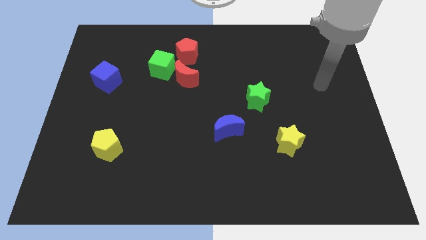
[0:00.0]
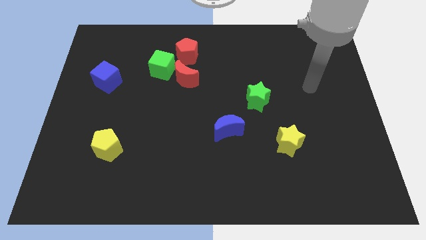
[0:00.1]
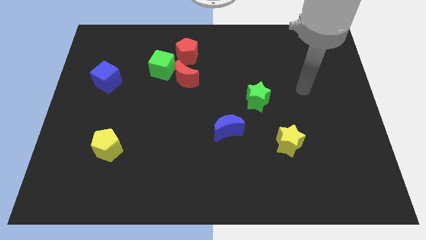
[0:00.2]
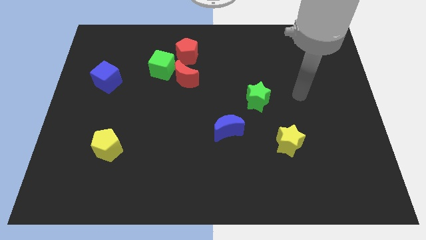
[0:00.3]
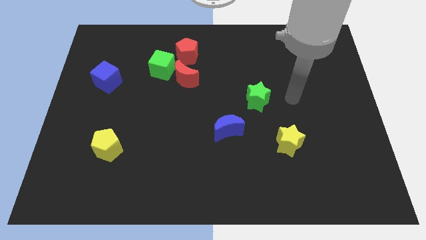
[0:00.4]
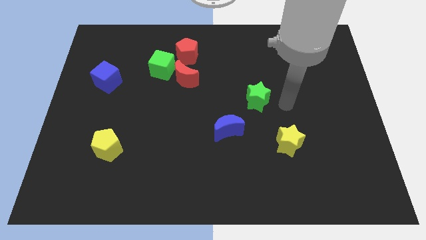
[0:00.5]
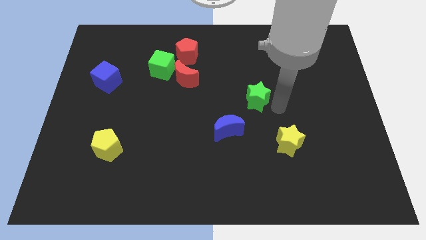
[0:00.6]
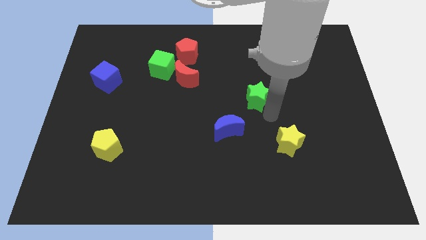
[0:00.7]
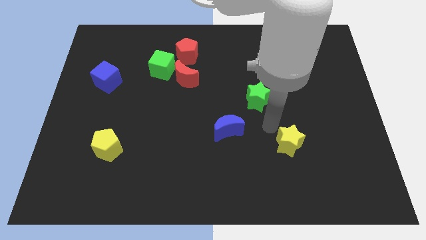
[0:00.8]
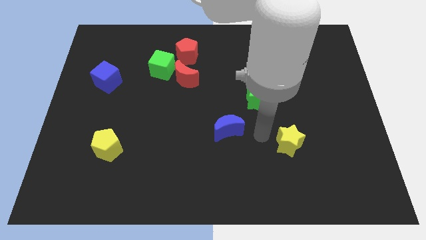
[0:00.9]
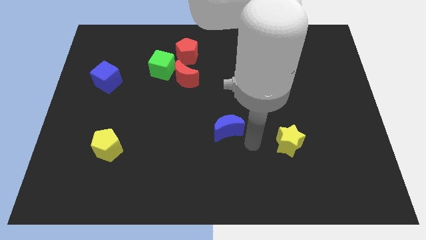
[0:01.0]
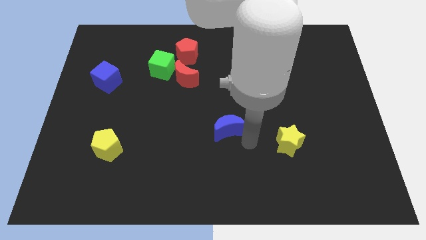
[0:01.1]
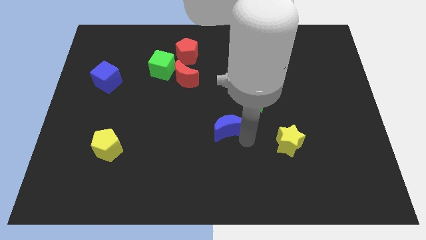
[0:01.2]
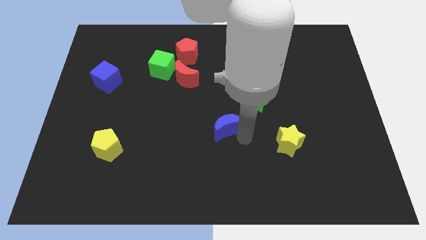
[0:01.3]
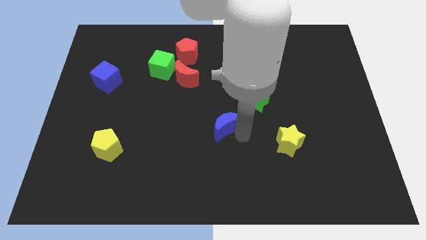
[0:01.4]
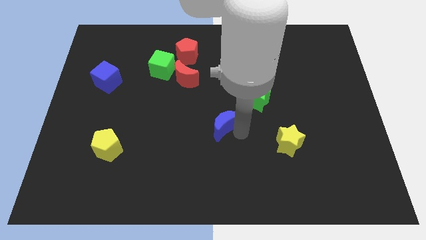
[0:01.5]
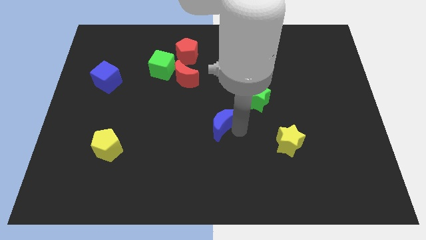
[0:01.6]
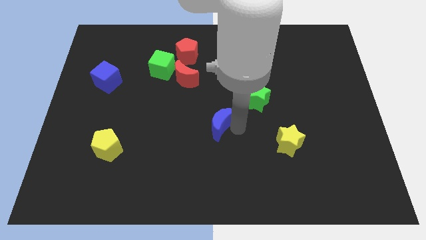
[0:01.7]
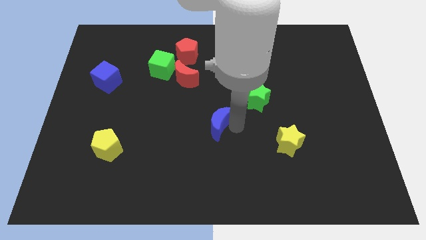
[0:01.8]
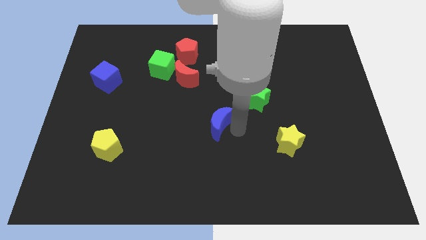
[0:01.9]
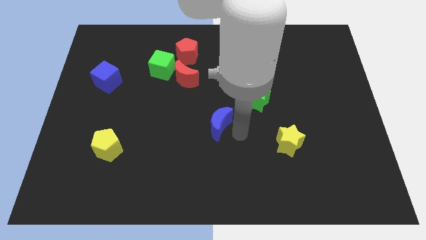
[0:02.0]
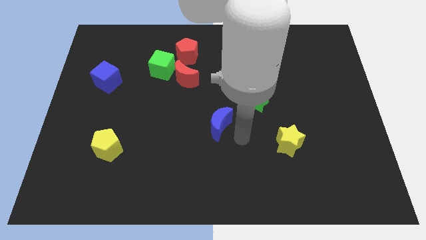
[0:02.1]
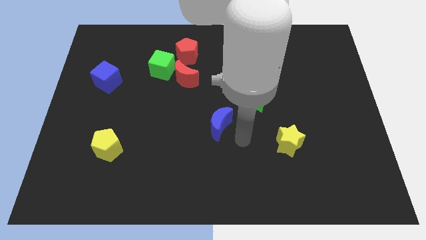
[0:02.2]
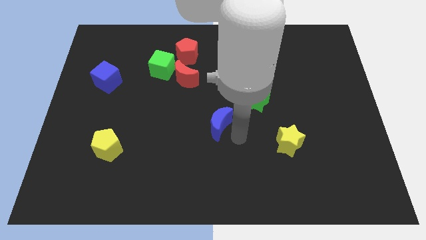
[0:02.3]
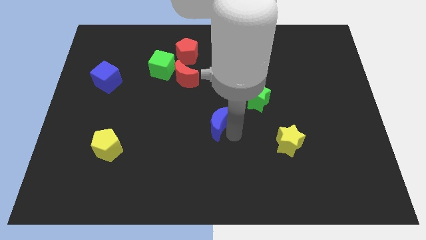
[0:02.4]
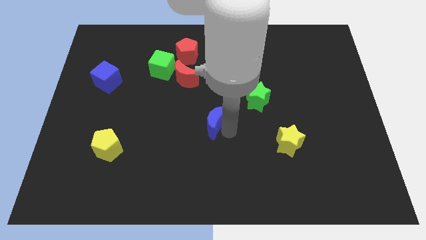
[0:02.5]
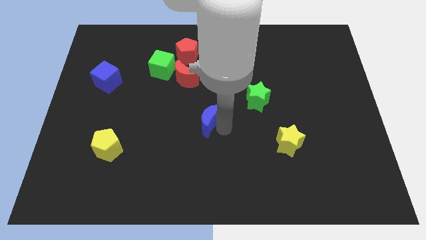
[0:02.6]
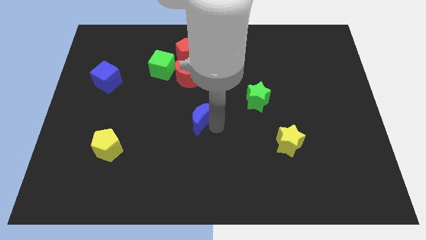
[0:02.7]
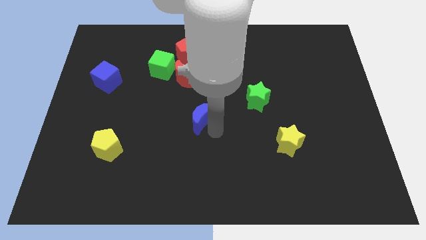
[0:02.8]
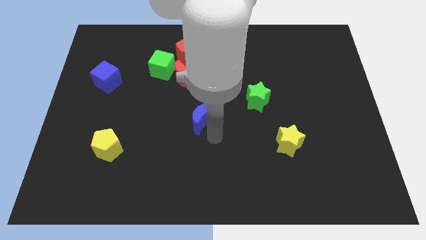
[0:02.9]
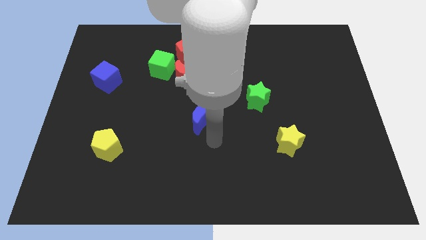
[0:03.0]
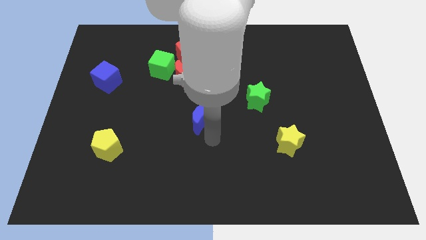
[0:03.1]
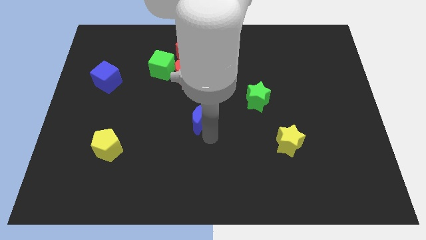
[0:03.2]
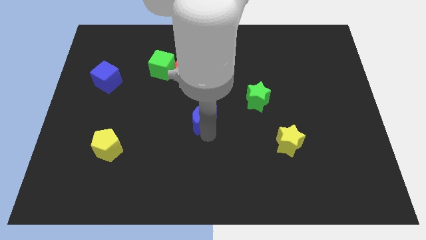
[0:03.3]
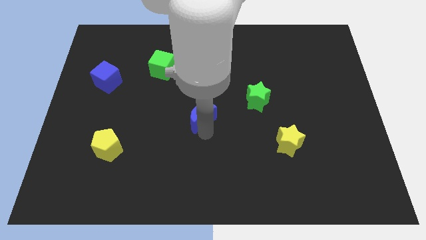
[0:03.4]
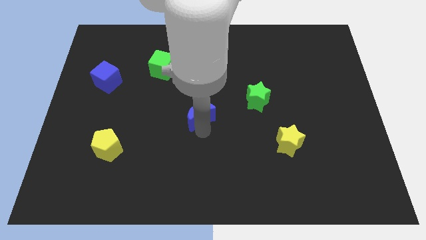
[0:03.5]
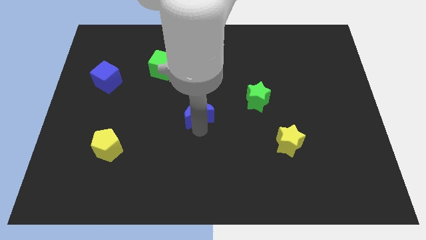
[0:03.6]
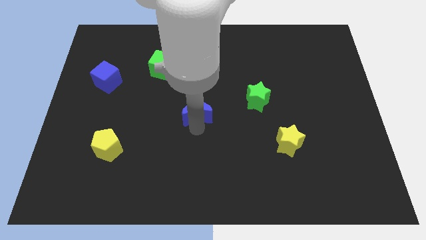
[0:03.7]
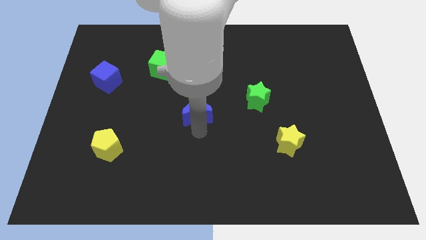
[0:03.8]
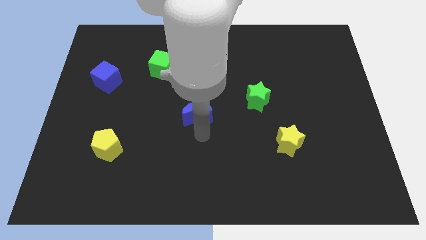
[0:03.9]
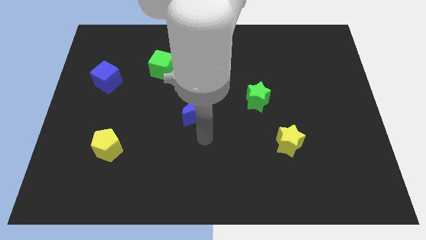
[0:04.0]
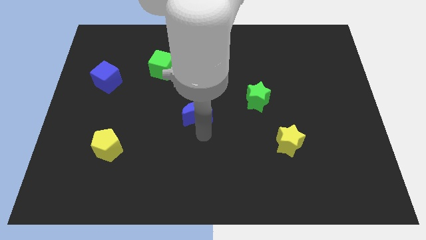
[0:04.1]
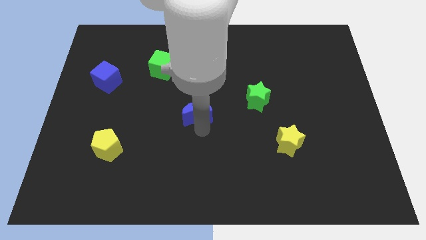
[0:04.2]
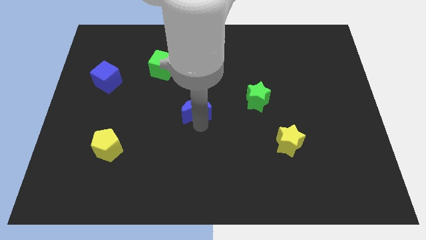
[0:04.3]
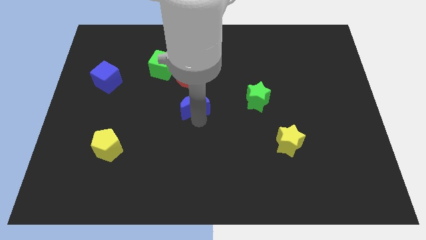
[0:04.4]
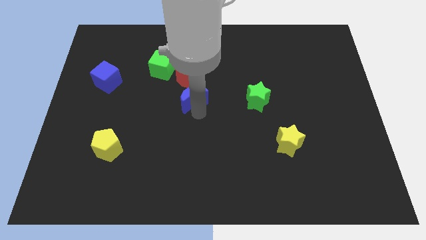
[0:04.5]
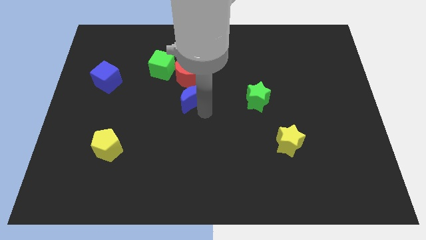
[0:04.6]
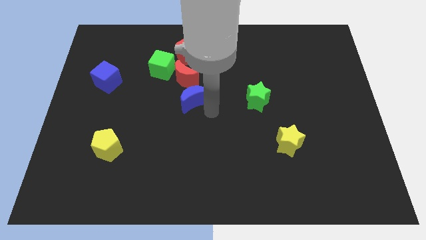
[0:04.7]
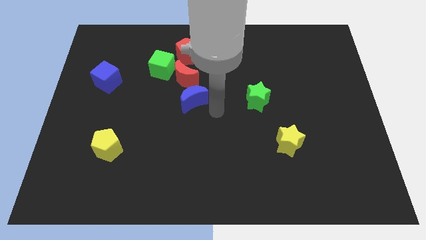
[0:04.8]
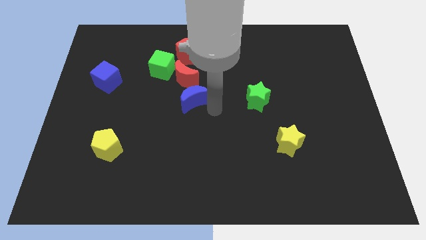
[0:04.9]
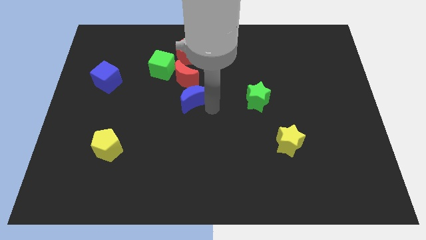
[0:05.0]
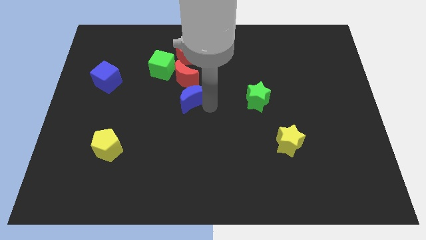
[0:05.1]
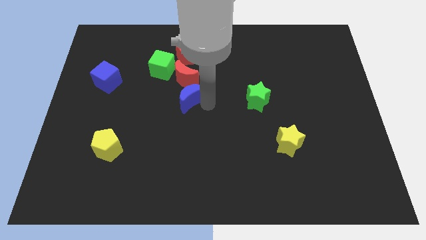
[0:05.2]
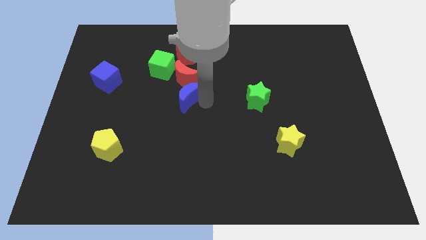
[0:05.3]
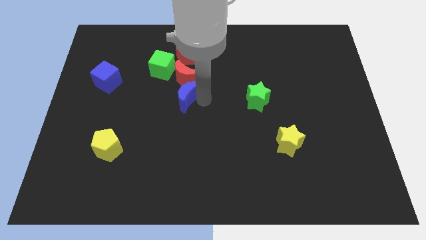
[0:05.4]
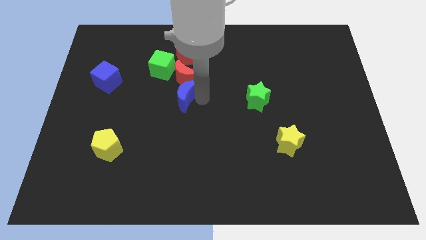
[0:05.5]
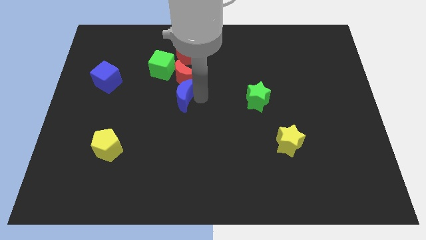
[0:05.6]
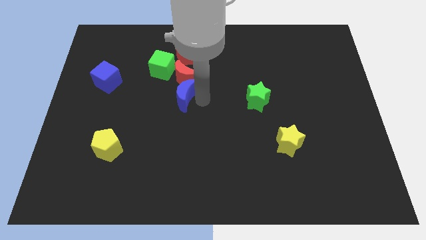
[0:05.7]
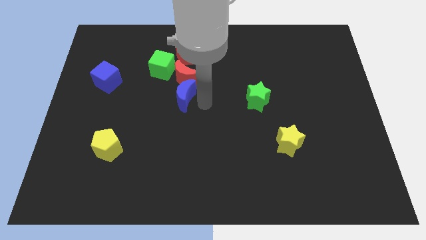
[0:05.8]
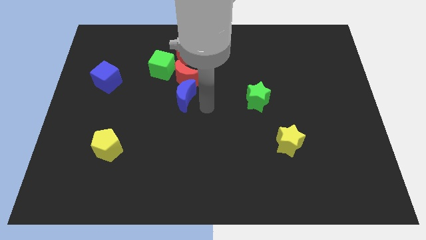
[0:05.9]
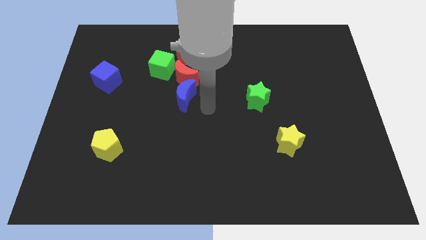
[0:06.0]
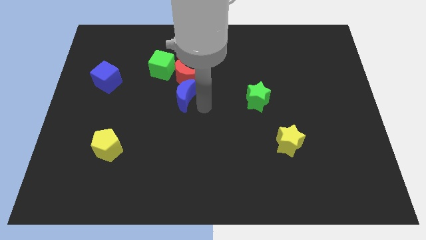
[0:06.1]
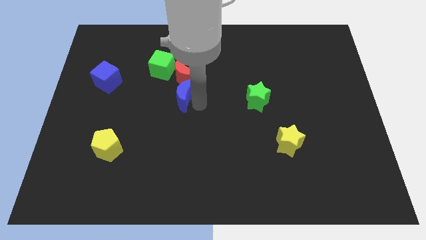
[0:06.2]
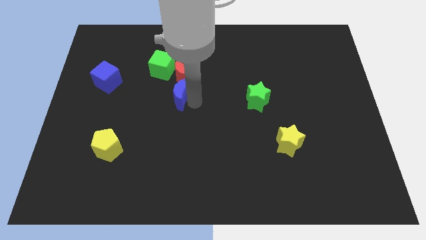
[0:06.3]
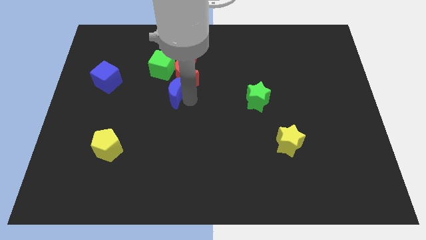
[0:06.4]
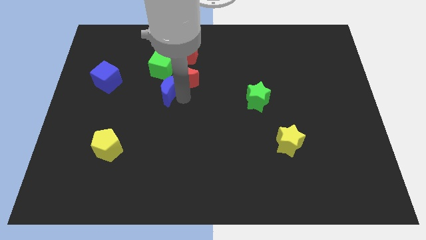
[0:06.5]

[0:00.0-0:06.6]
slide the blue moon just left of the red moon
